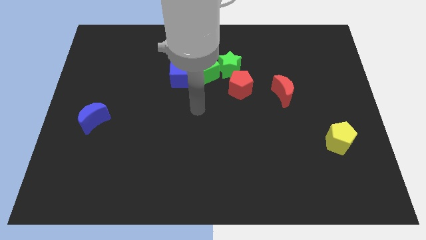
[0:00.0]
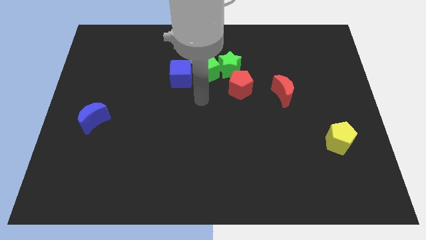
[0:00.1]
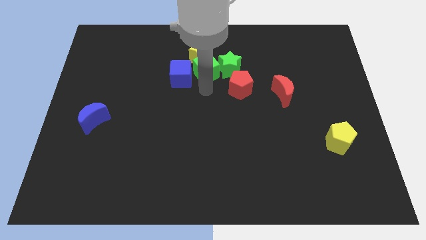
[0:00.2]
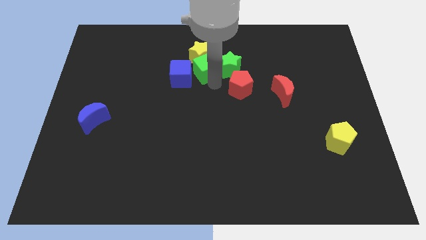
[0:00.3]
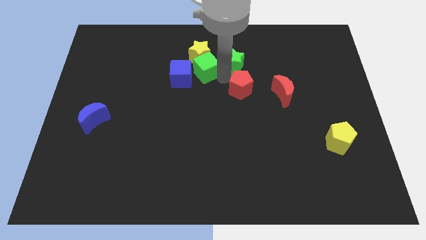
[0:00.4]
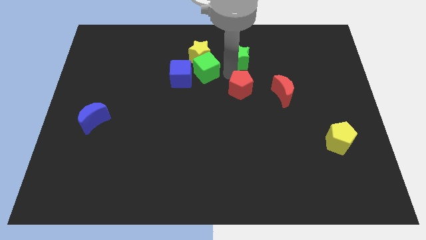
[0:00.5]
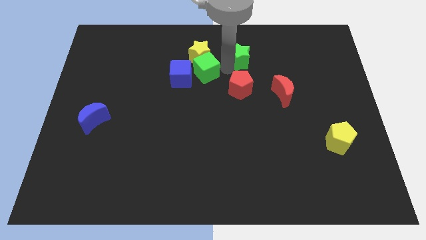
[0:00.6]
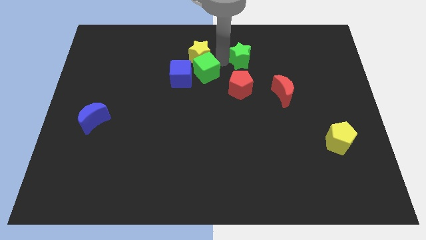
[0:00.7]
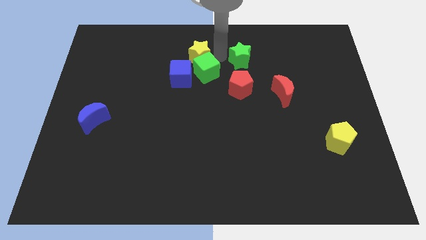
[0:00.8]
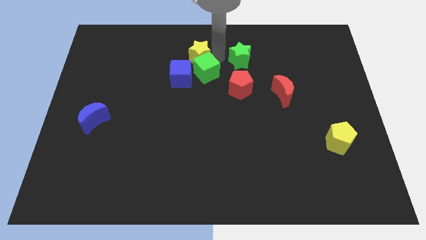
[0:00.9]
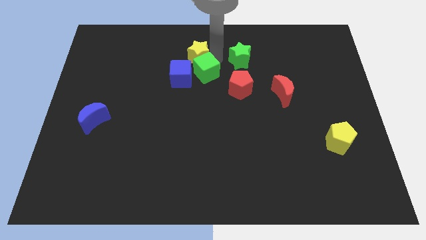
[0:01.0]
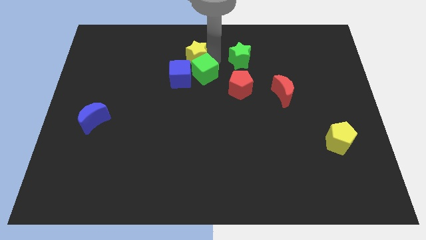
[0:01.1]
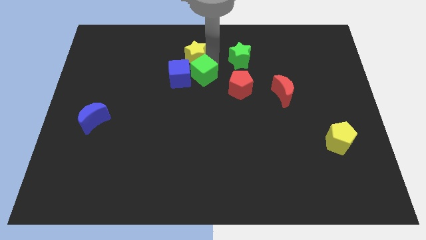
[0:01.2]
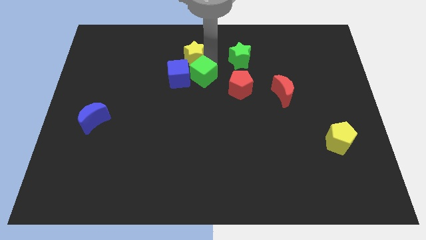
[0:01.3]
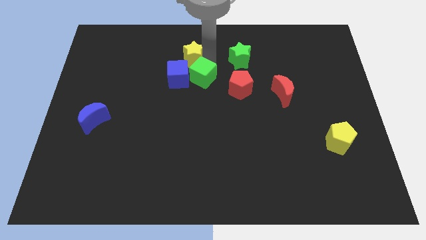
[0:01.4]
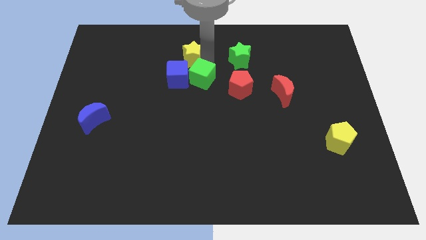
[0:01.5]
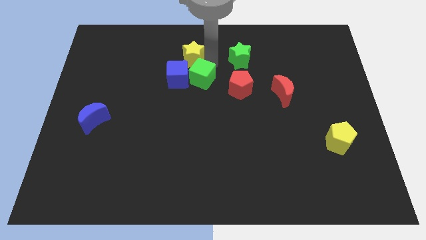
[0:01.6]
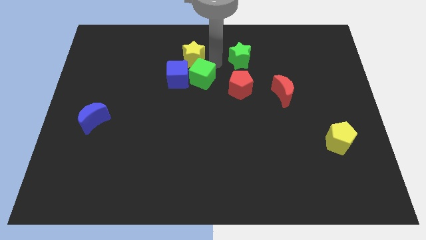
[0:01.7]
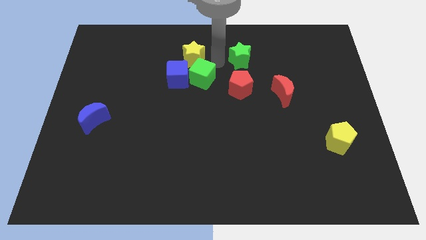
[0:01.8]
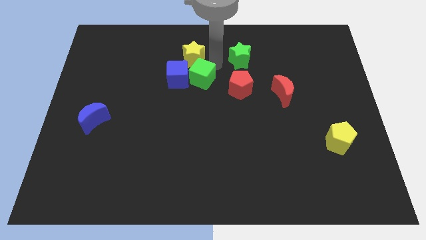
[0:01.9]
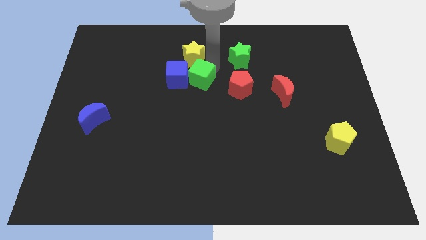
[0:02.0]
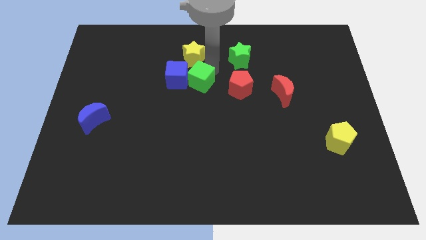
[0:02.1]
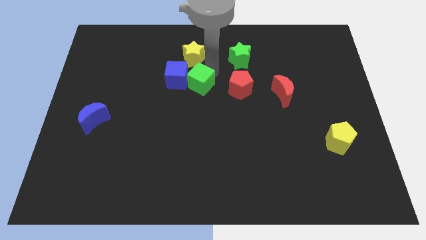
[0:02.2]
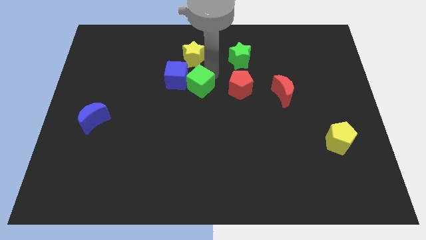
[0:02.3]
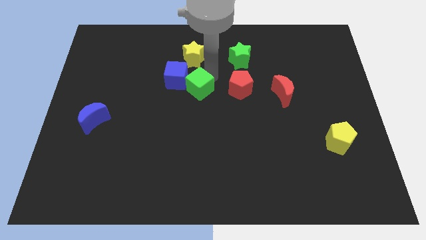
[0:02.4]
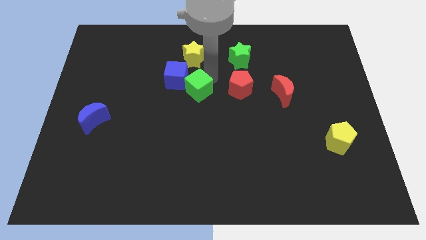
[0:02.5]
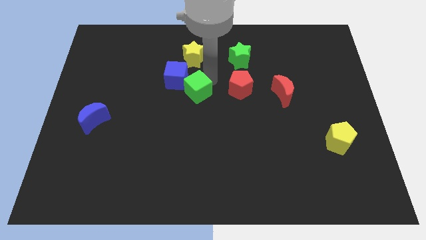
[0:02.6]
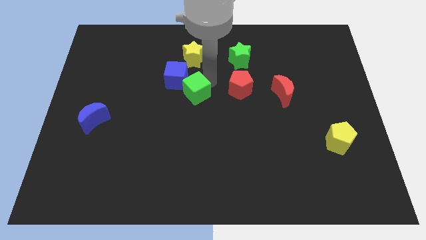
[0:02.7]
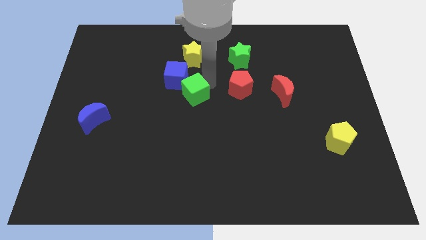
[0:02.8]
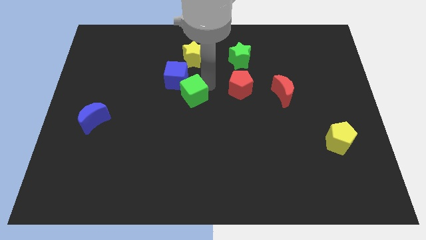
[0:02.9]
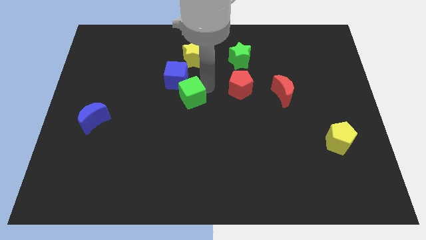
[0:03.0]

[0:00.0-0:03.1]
pull the green cube apart from the group

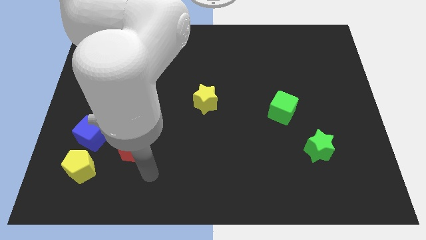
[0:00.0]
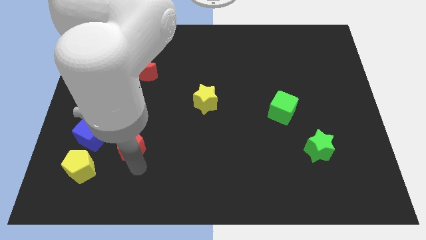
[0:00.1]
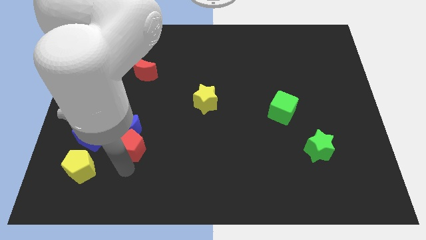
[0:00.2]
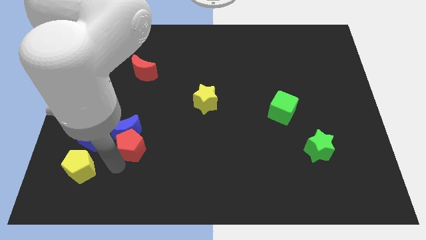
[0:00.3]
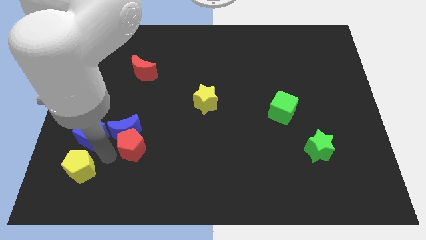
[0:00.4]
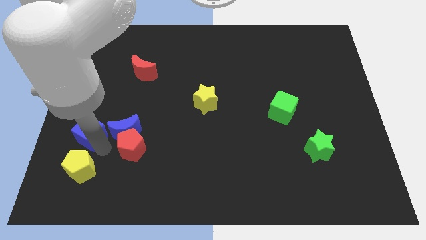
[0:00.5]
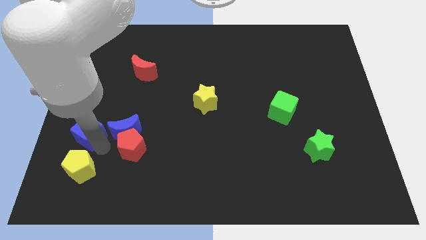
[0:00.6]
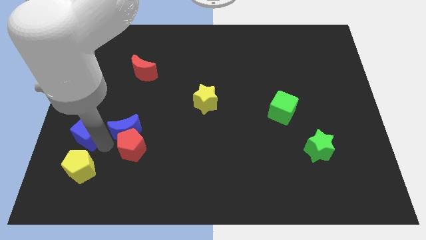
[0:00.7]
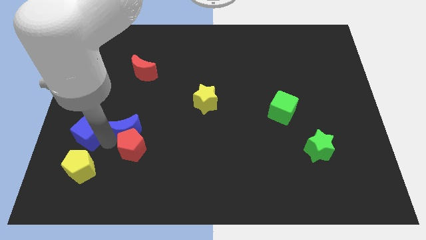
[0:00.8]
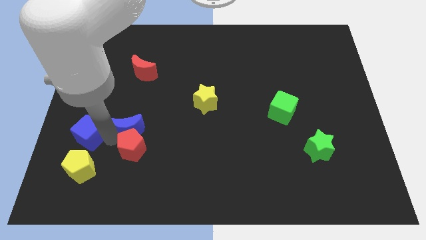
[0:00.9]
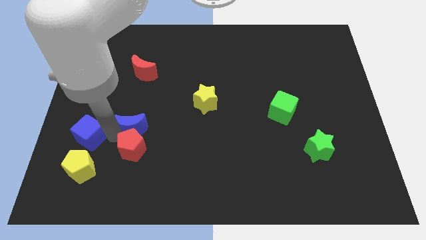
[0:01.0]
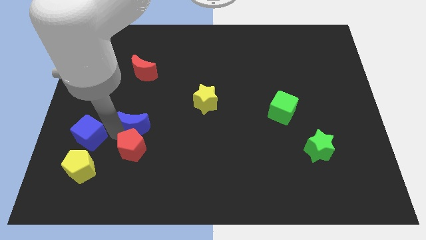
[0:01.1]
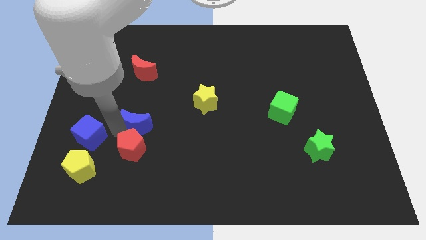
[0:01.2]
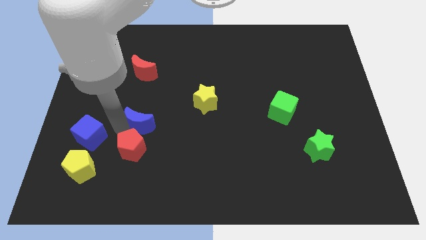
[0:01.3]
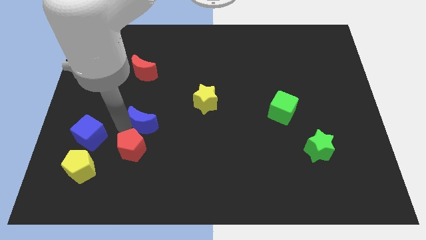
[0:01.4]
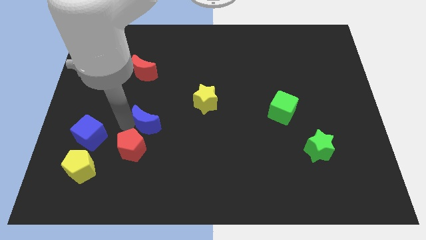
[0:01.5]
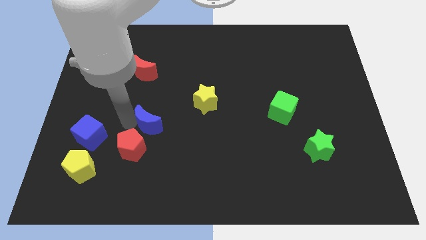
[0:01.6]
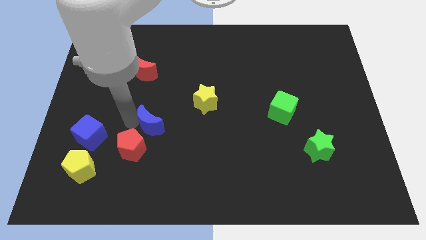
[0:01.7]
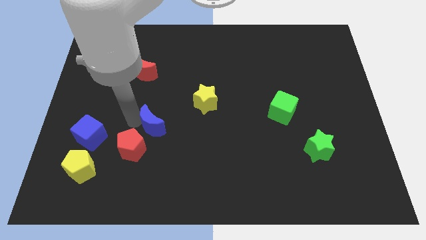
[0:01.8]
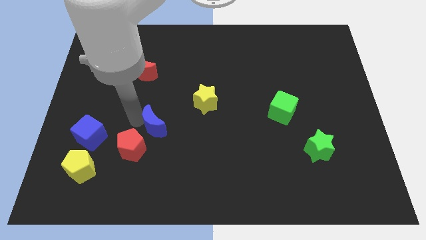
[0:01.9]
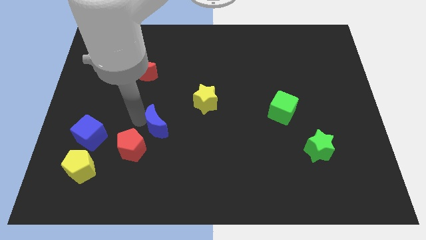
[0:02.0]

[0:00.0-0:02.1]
move the blue moon away from the red pentagon and blue cube

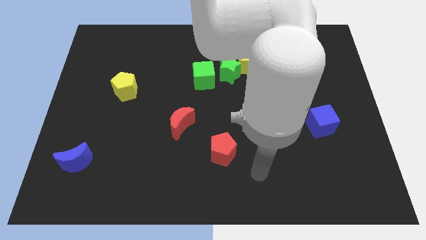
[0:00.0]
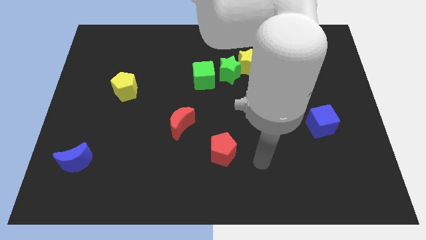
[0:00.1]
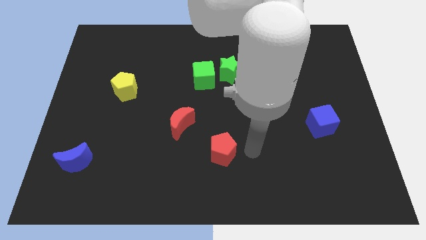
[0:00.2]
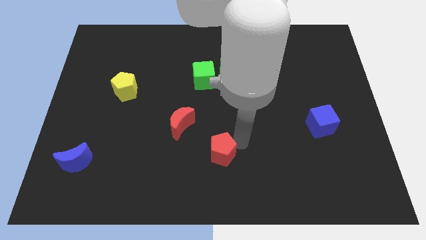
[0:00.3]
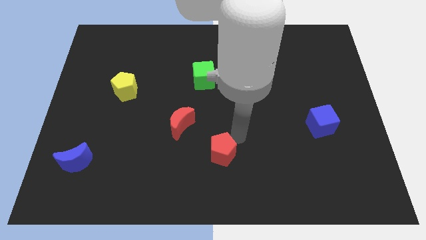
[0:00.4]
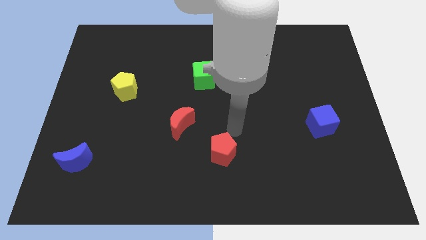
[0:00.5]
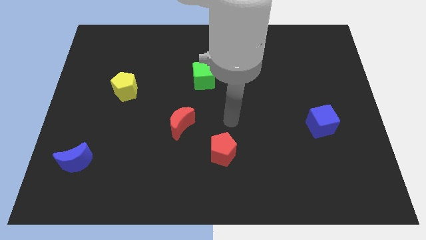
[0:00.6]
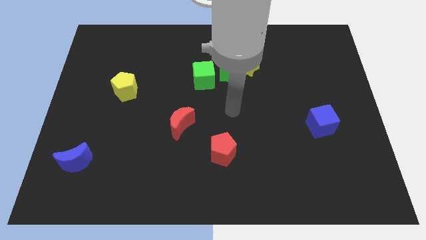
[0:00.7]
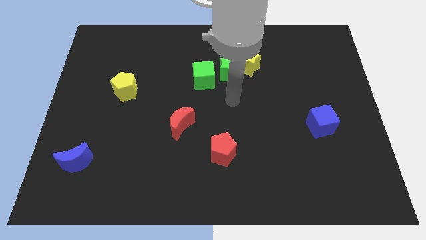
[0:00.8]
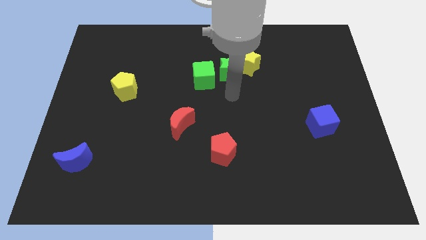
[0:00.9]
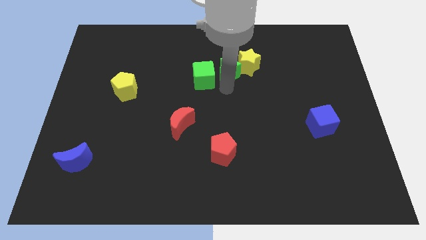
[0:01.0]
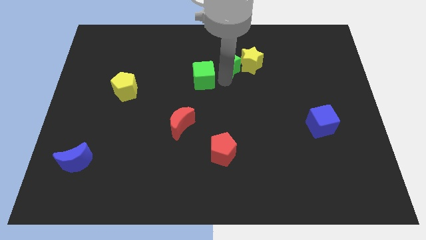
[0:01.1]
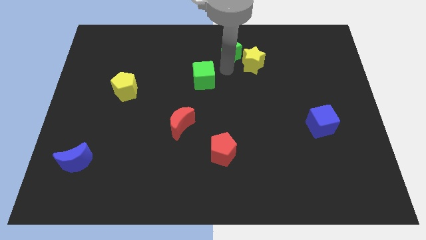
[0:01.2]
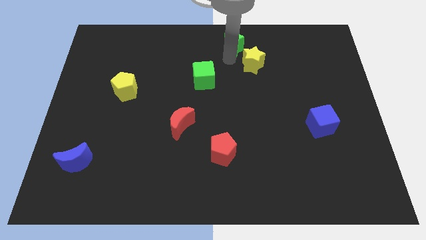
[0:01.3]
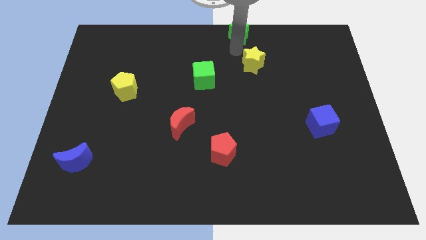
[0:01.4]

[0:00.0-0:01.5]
pull the yellow star apart from the green star

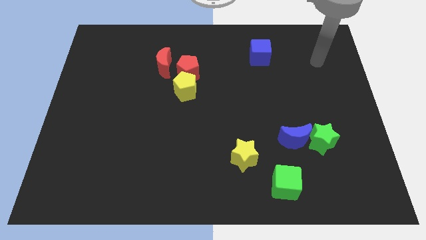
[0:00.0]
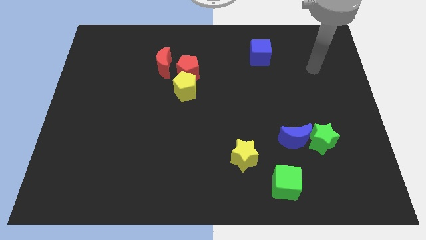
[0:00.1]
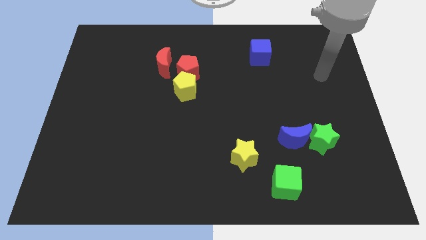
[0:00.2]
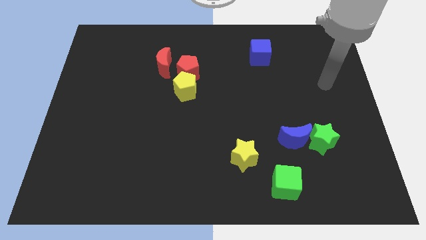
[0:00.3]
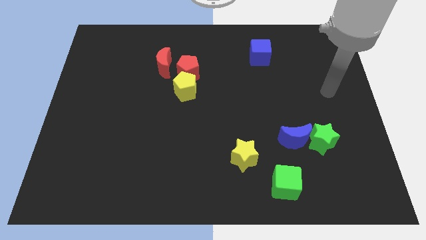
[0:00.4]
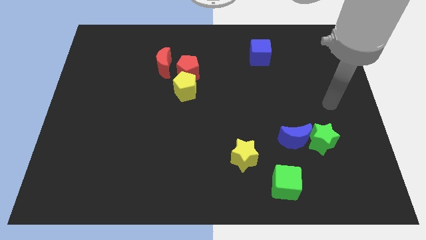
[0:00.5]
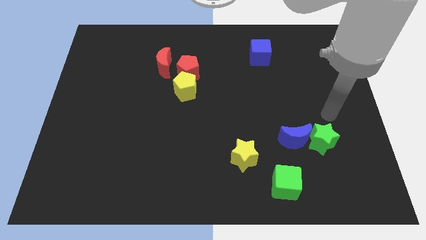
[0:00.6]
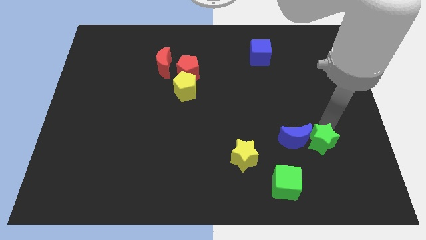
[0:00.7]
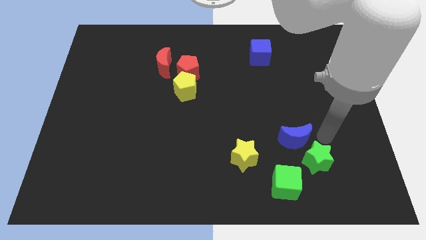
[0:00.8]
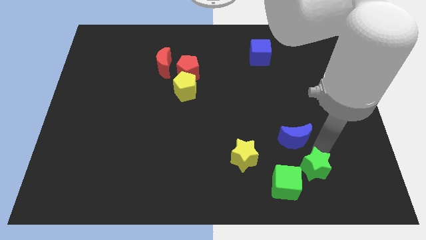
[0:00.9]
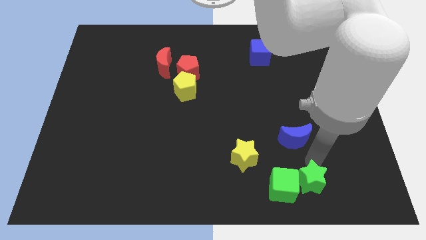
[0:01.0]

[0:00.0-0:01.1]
separate the blue moon from the green star

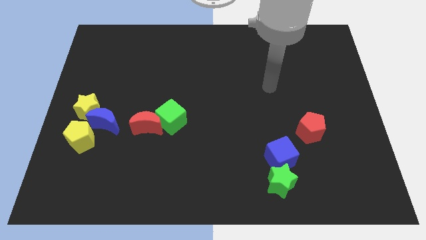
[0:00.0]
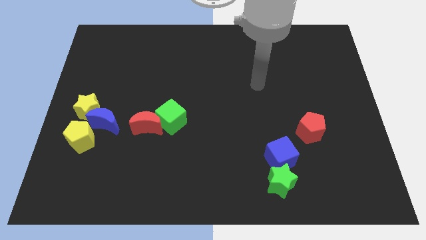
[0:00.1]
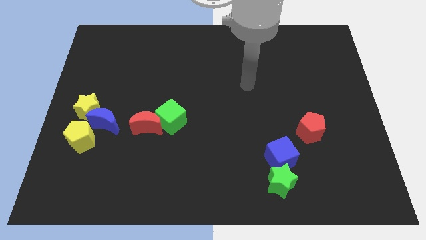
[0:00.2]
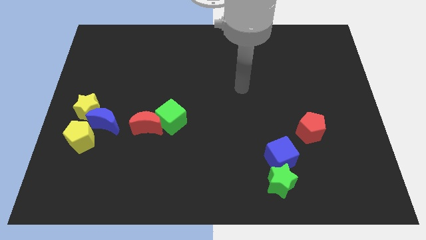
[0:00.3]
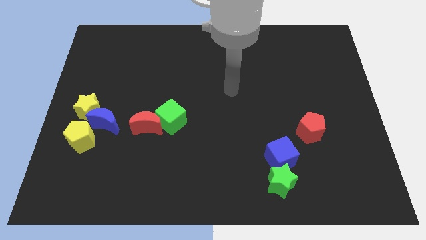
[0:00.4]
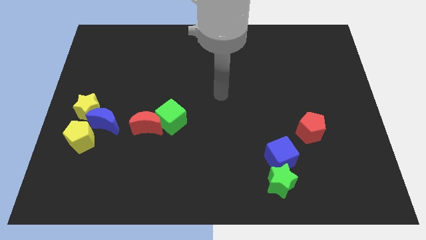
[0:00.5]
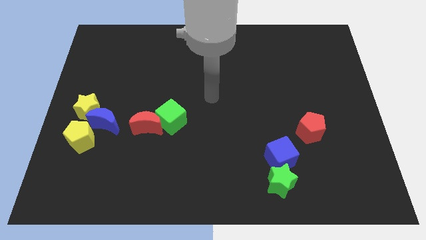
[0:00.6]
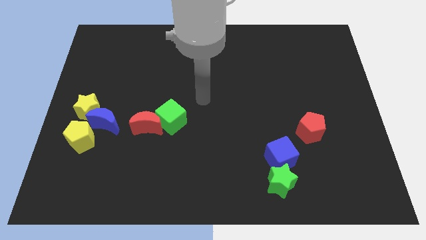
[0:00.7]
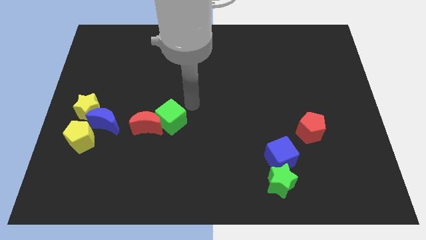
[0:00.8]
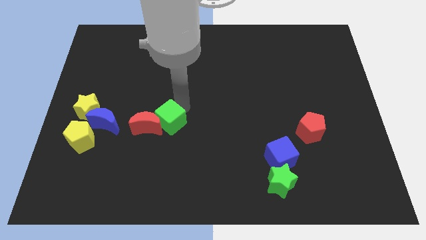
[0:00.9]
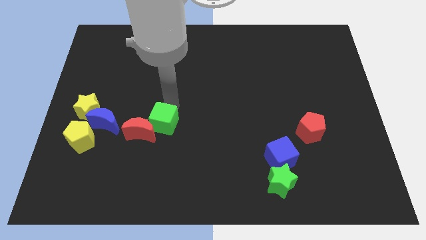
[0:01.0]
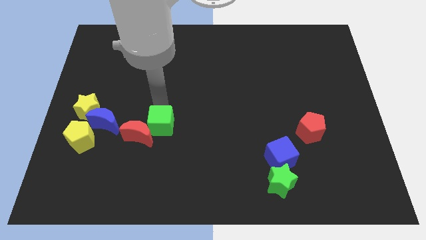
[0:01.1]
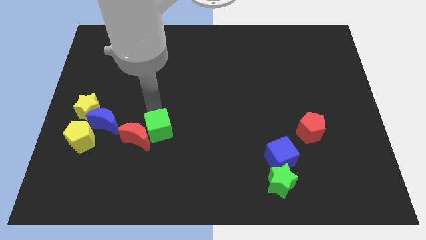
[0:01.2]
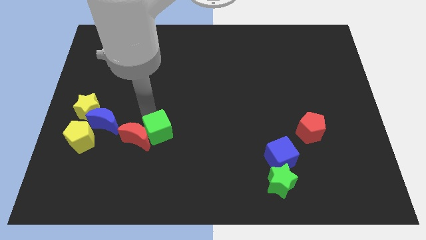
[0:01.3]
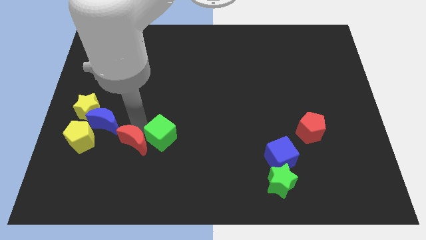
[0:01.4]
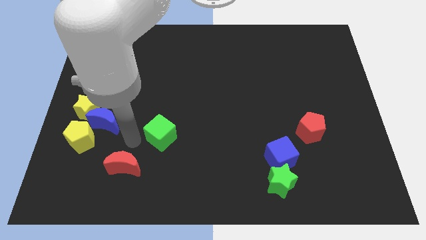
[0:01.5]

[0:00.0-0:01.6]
separate the green cube from the red moon
